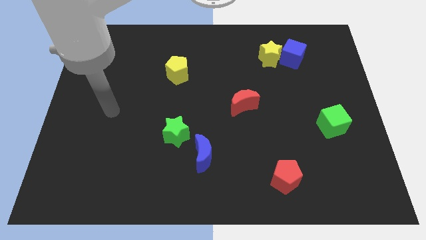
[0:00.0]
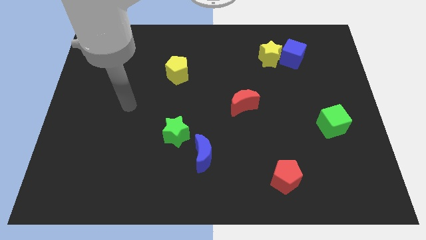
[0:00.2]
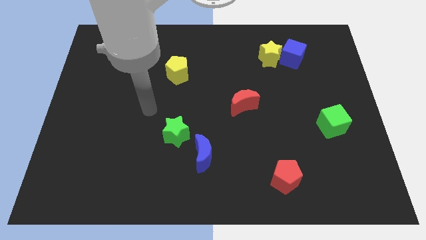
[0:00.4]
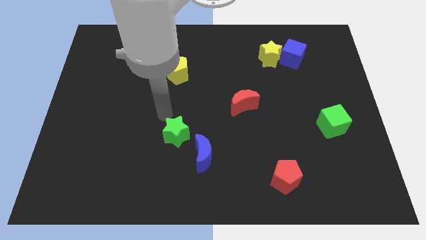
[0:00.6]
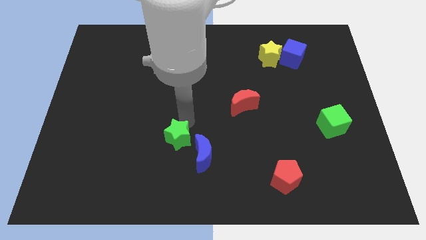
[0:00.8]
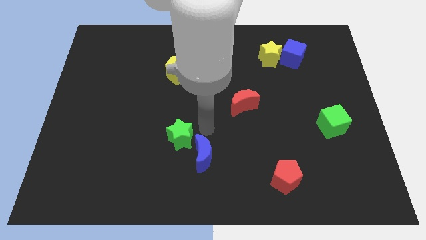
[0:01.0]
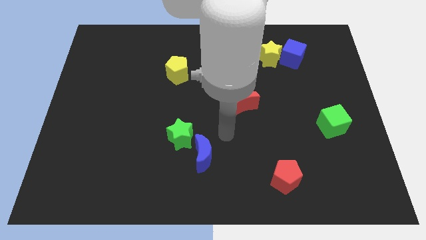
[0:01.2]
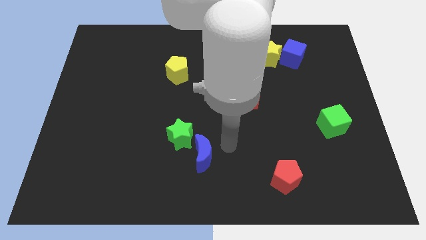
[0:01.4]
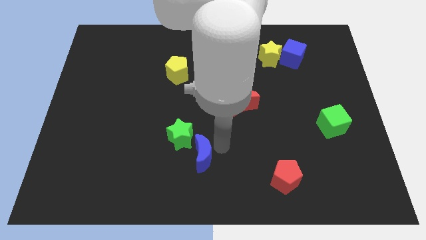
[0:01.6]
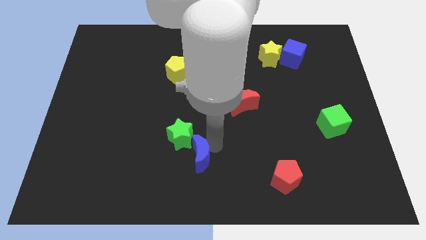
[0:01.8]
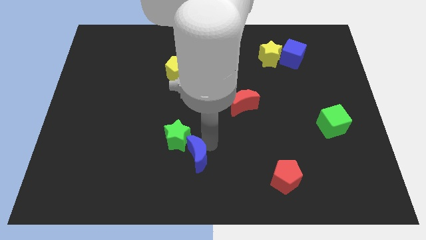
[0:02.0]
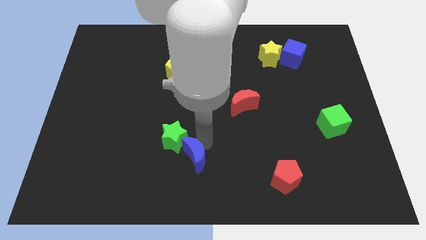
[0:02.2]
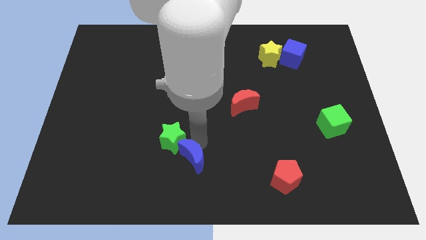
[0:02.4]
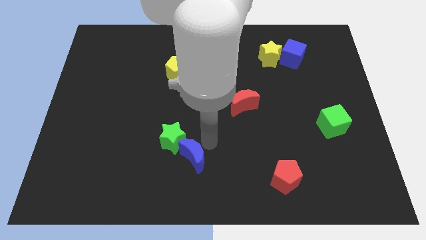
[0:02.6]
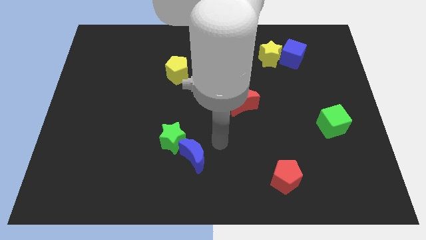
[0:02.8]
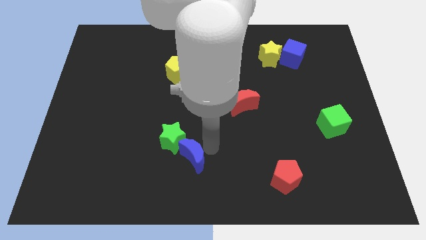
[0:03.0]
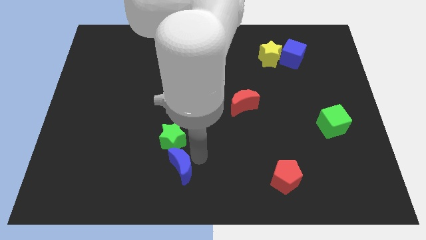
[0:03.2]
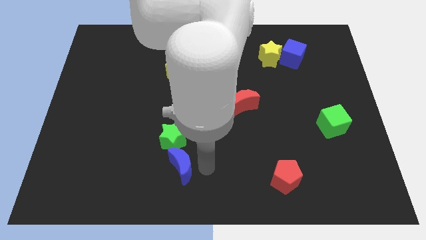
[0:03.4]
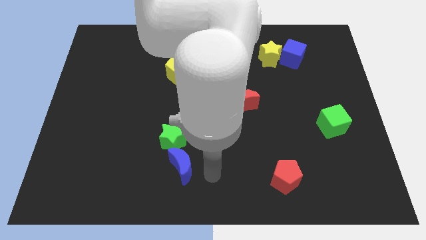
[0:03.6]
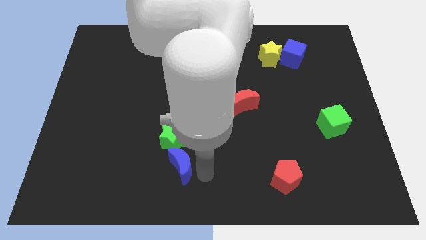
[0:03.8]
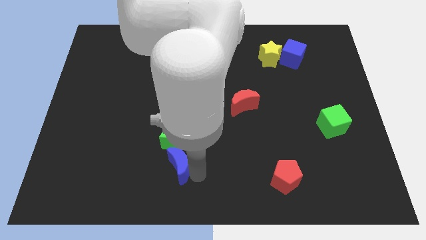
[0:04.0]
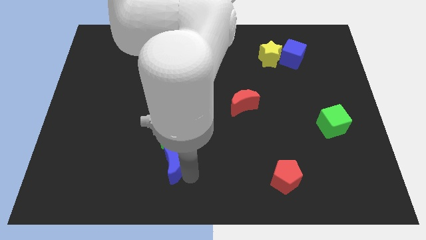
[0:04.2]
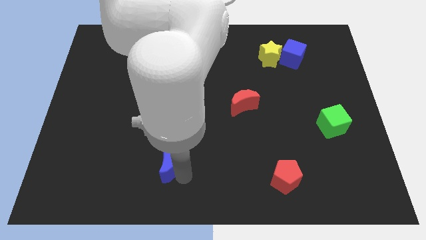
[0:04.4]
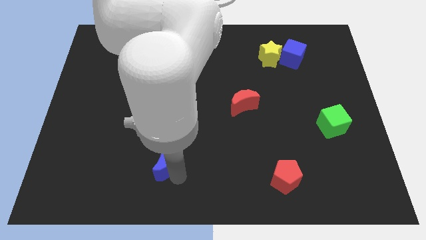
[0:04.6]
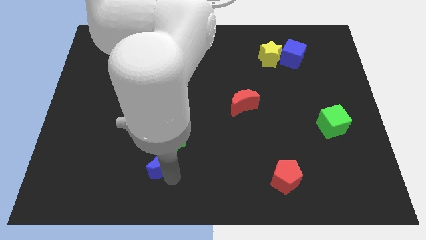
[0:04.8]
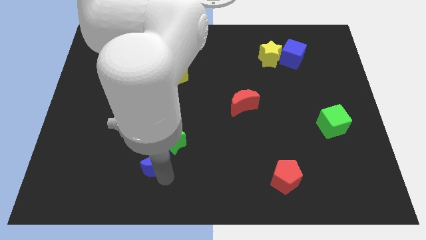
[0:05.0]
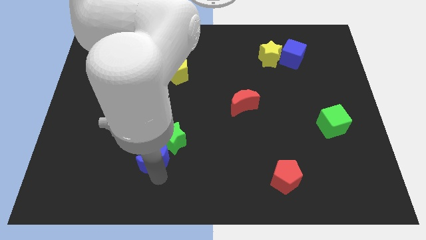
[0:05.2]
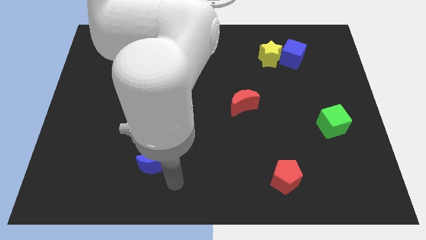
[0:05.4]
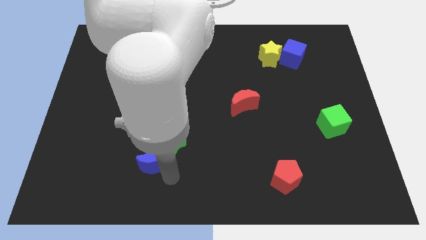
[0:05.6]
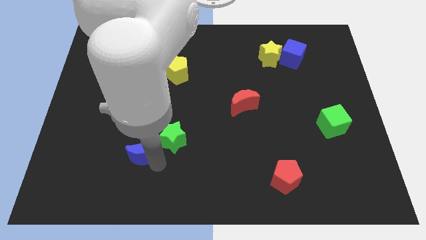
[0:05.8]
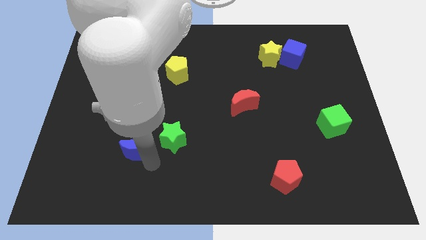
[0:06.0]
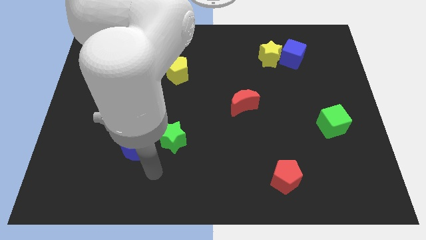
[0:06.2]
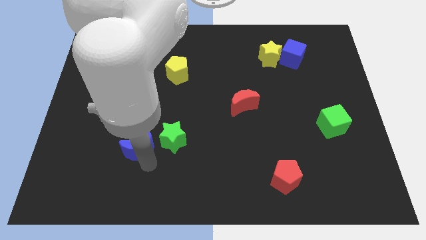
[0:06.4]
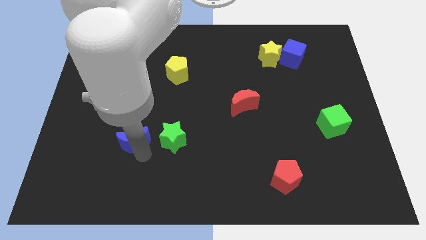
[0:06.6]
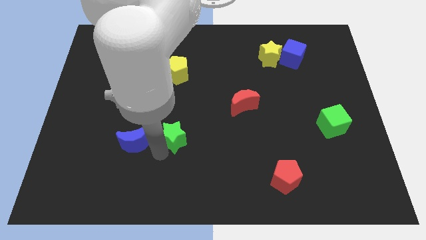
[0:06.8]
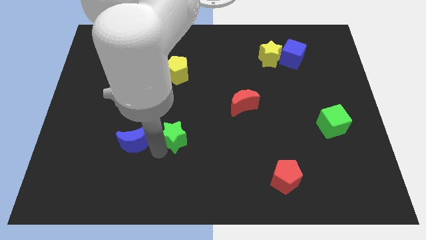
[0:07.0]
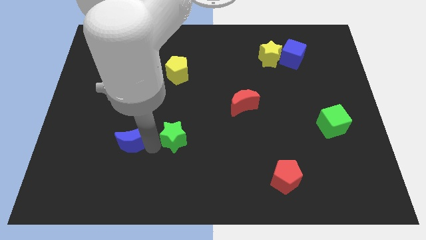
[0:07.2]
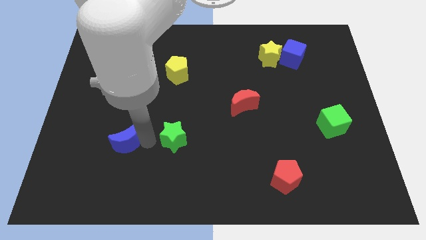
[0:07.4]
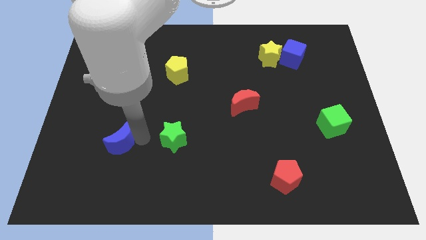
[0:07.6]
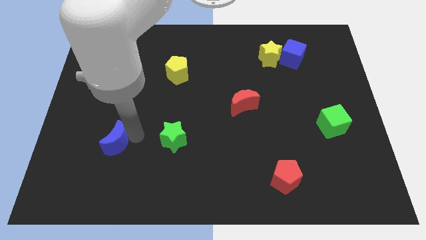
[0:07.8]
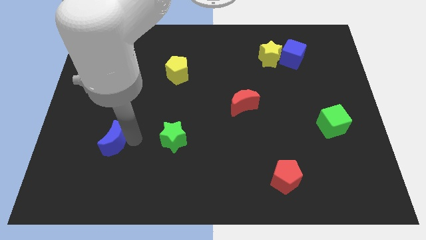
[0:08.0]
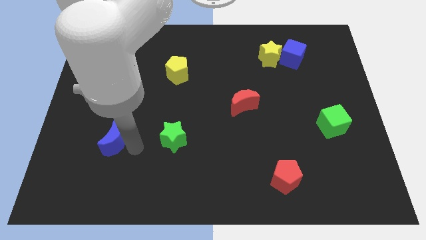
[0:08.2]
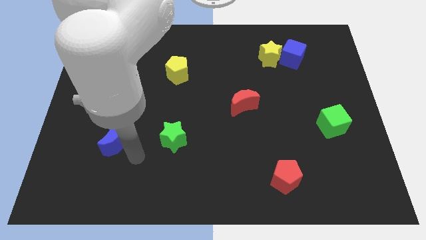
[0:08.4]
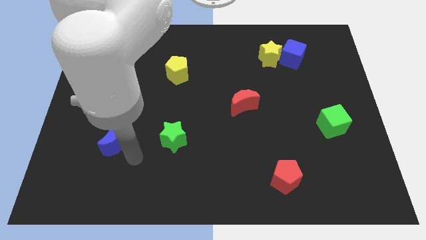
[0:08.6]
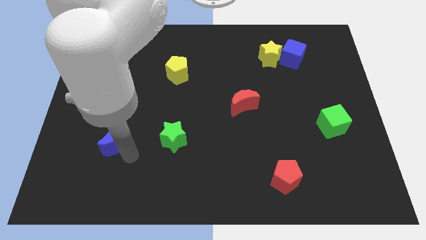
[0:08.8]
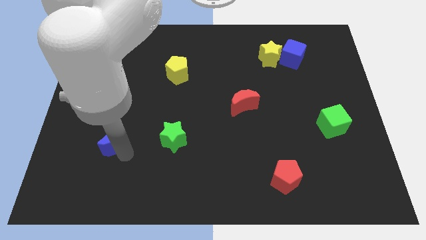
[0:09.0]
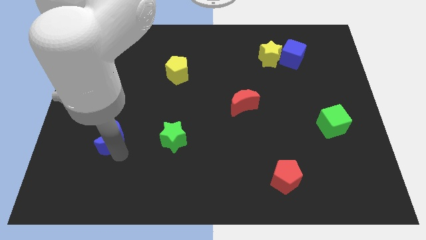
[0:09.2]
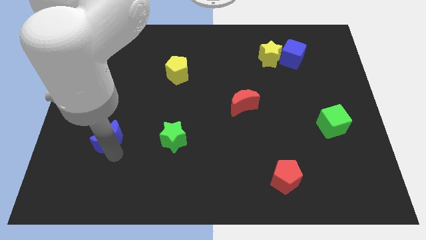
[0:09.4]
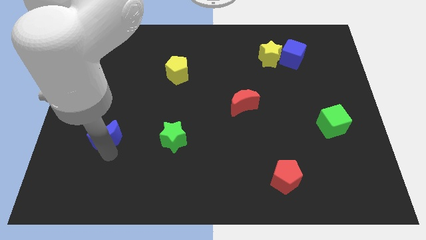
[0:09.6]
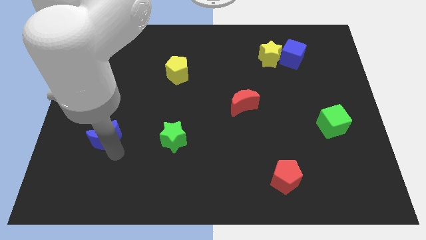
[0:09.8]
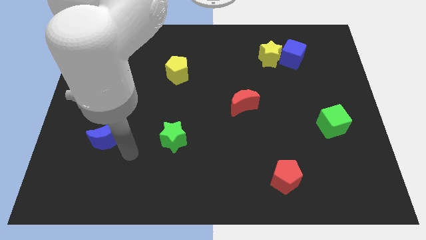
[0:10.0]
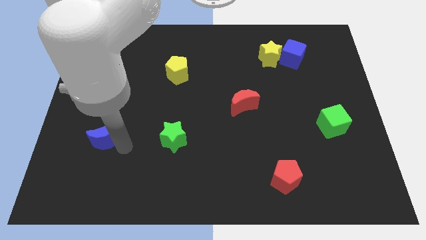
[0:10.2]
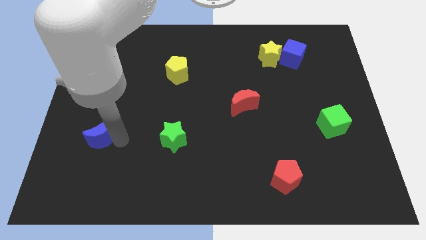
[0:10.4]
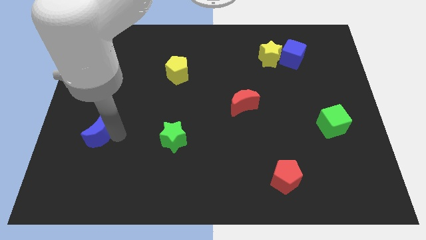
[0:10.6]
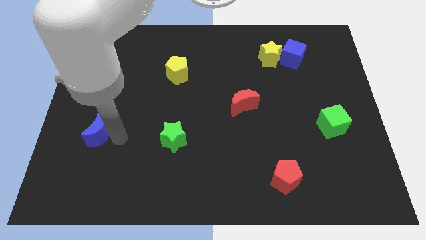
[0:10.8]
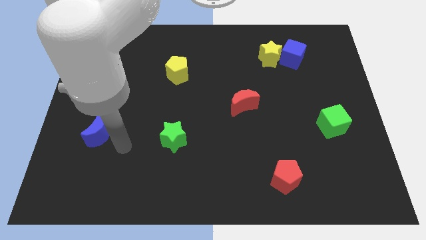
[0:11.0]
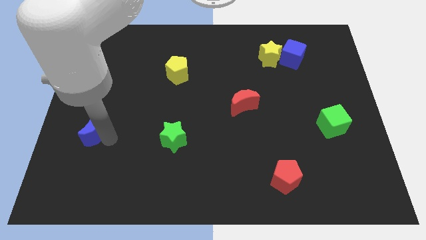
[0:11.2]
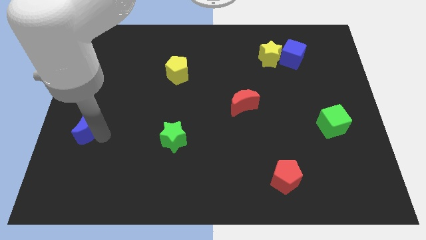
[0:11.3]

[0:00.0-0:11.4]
move the blue moon to the left side

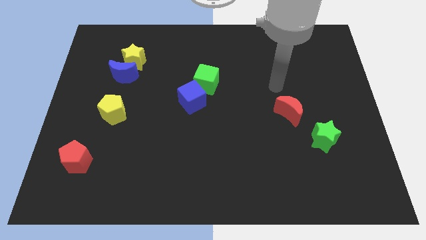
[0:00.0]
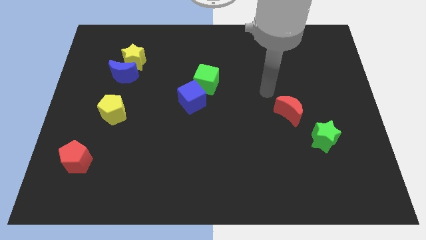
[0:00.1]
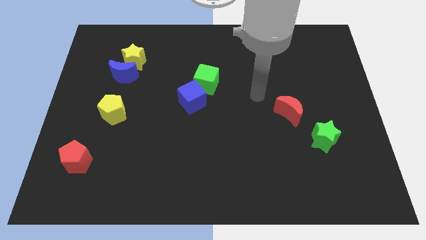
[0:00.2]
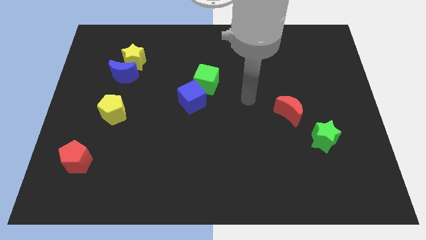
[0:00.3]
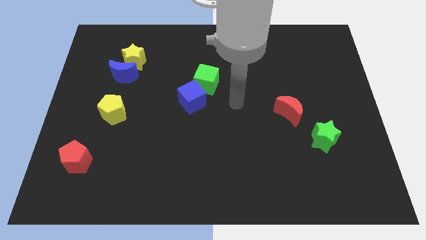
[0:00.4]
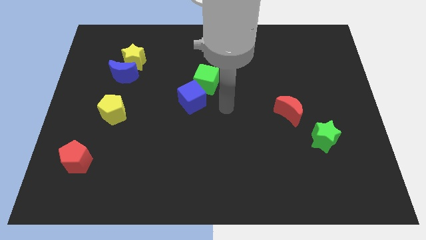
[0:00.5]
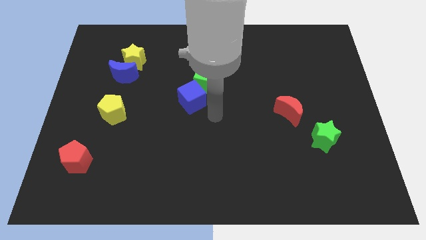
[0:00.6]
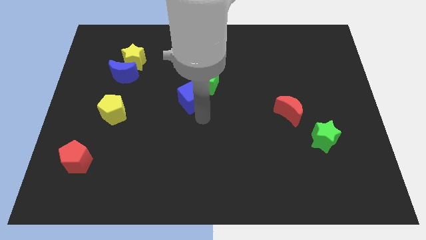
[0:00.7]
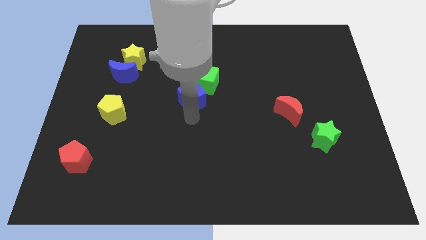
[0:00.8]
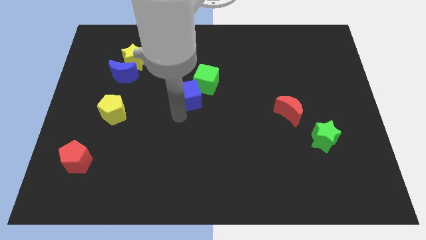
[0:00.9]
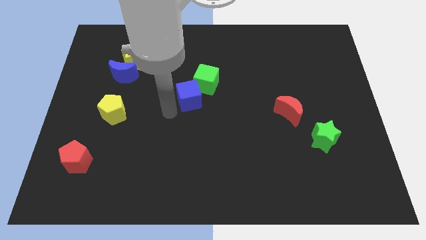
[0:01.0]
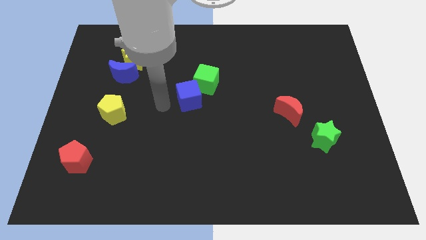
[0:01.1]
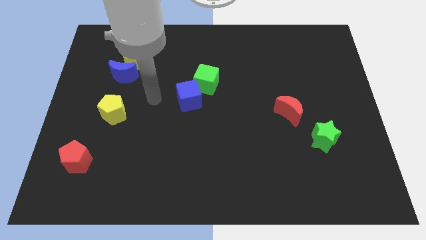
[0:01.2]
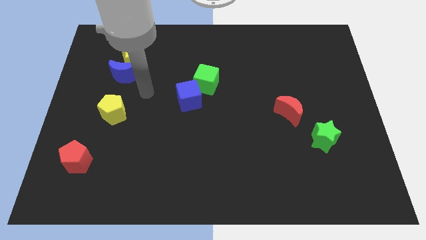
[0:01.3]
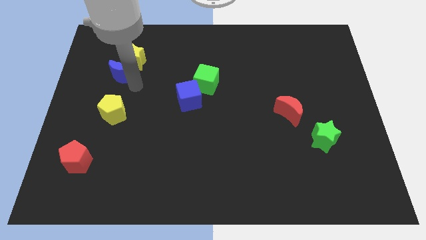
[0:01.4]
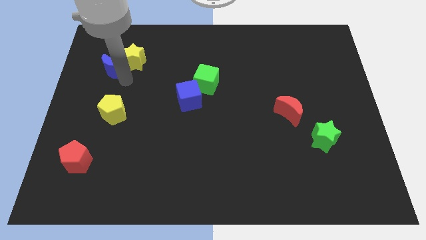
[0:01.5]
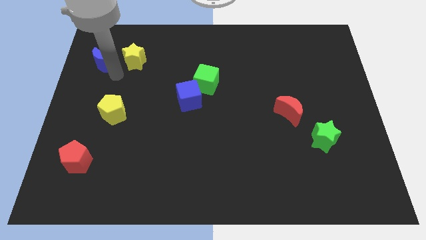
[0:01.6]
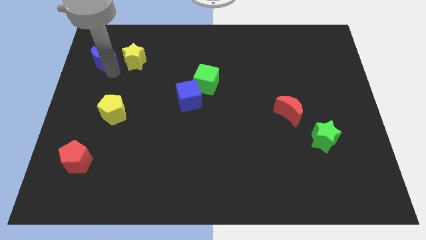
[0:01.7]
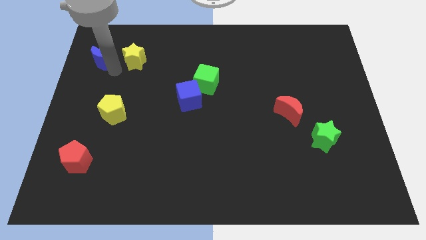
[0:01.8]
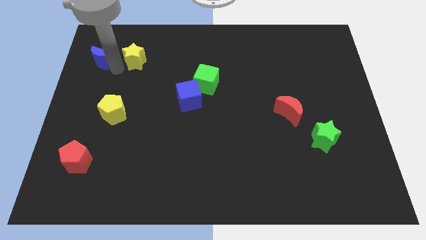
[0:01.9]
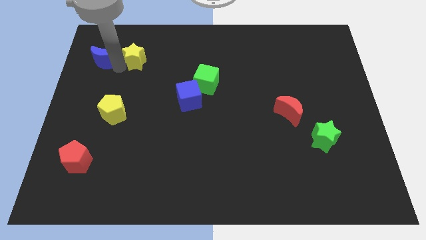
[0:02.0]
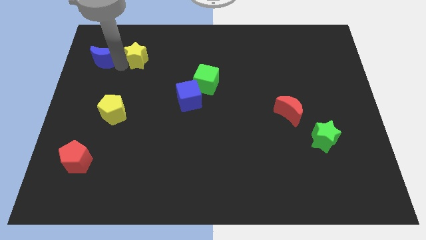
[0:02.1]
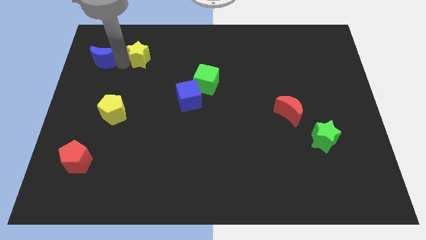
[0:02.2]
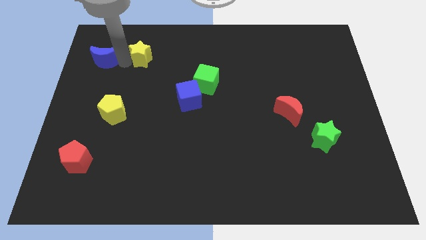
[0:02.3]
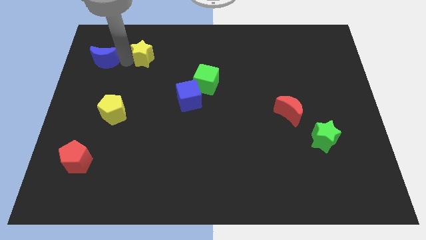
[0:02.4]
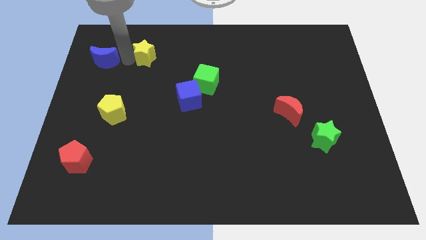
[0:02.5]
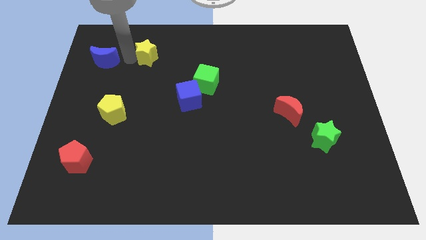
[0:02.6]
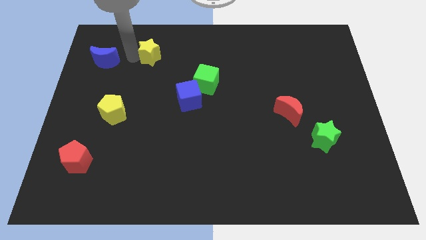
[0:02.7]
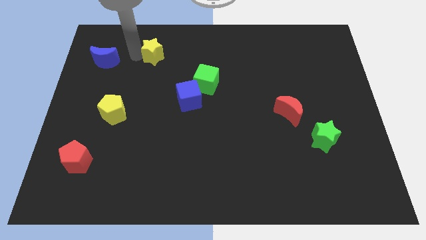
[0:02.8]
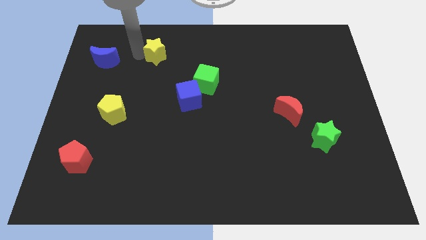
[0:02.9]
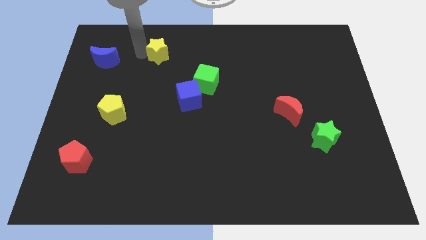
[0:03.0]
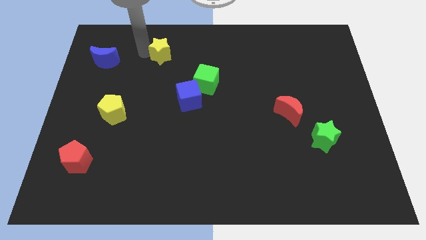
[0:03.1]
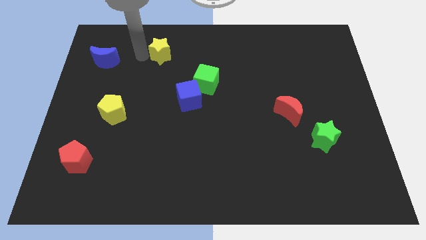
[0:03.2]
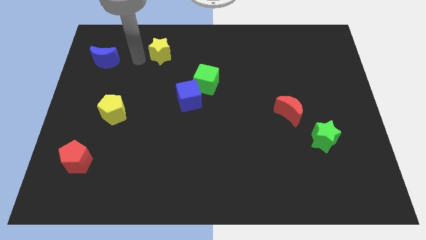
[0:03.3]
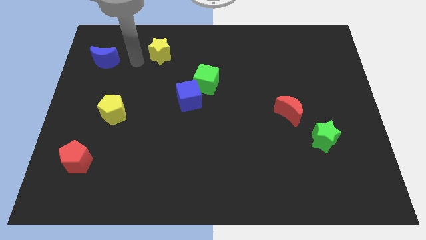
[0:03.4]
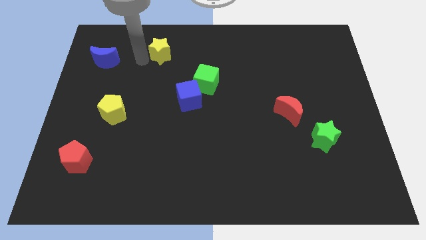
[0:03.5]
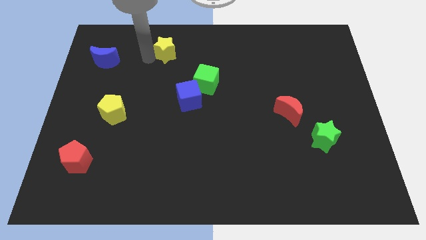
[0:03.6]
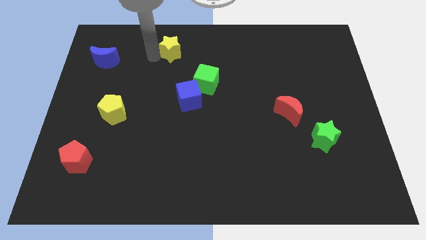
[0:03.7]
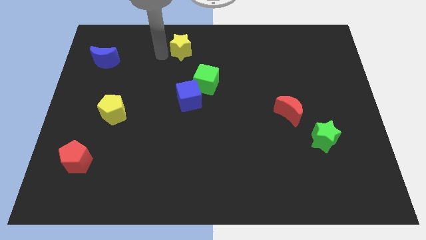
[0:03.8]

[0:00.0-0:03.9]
put the yellow star to the towards your base
